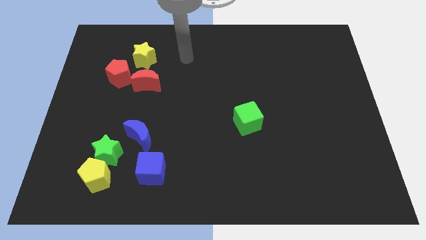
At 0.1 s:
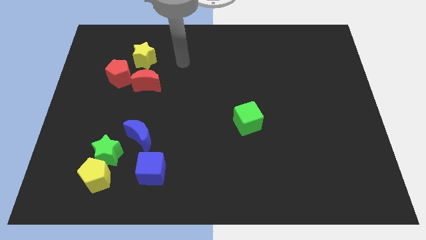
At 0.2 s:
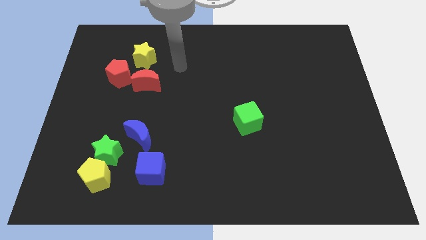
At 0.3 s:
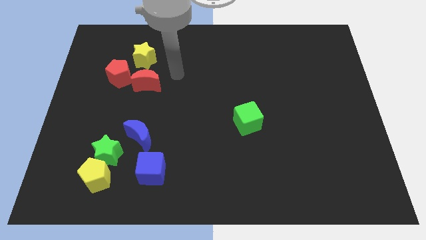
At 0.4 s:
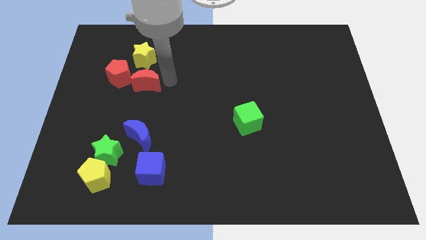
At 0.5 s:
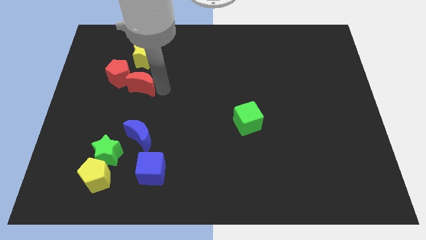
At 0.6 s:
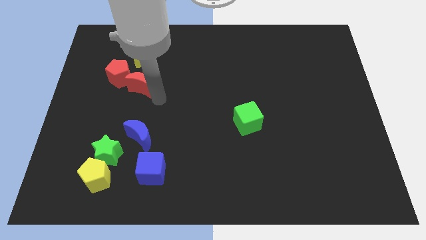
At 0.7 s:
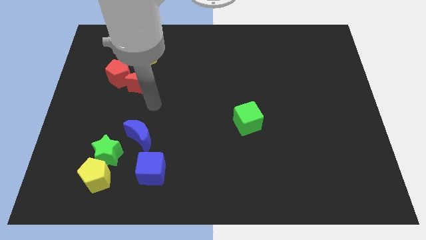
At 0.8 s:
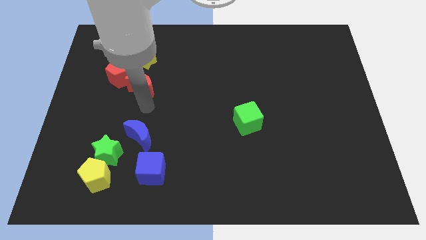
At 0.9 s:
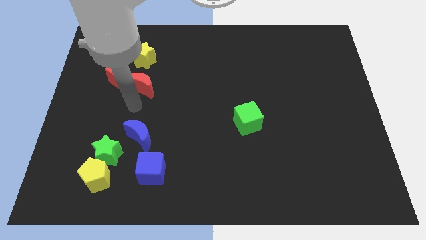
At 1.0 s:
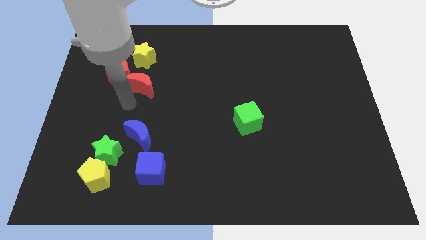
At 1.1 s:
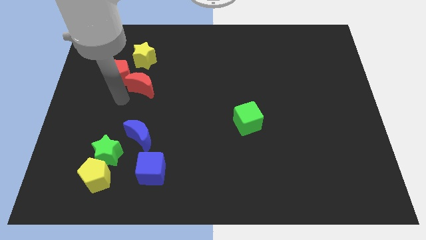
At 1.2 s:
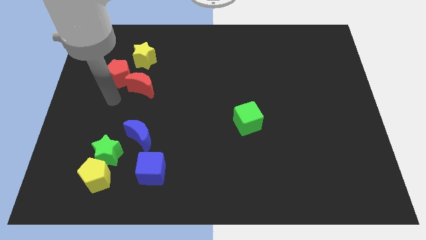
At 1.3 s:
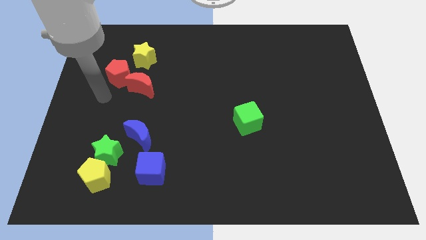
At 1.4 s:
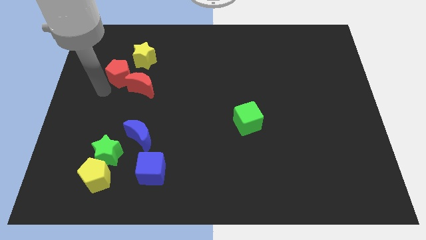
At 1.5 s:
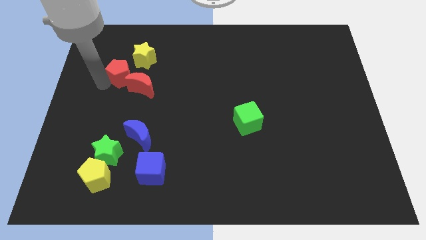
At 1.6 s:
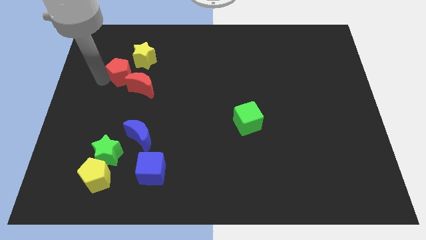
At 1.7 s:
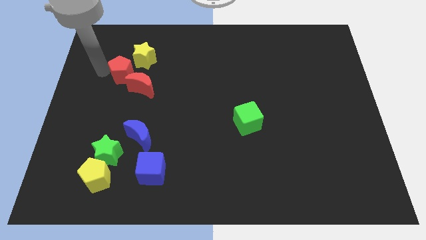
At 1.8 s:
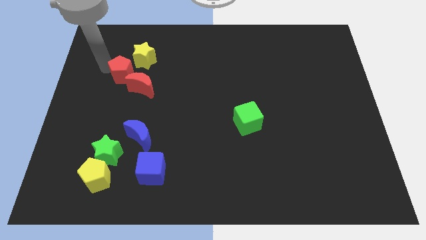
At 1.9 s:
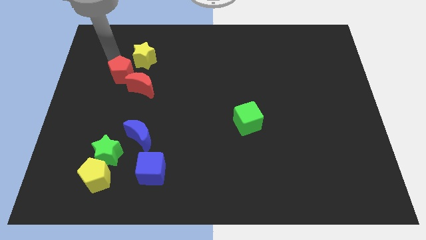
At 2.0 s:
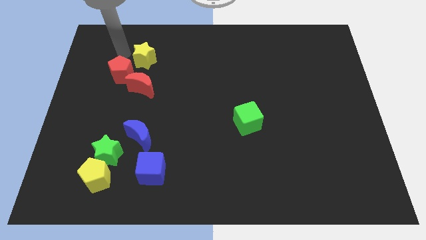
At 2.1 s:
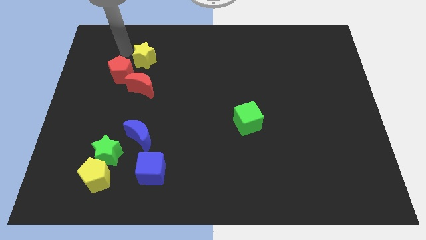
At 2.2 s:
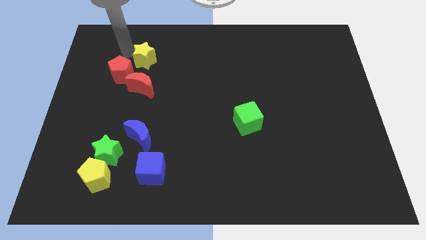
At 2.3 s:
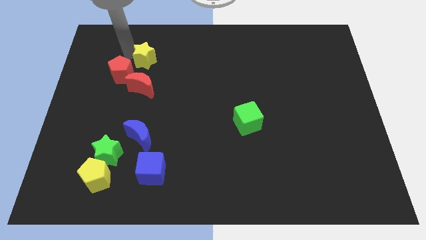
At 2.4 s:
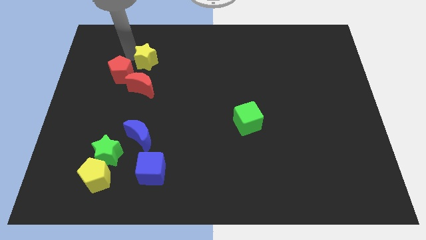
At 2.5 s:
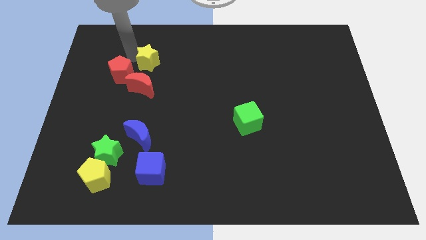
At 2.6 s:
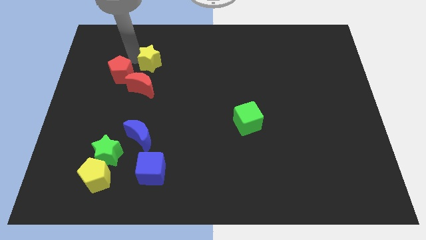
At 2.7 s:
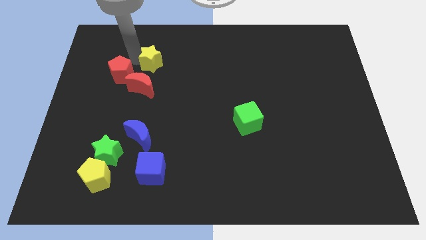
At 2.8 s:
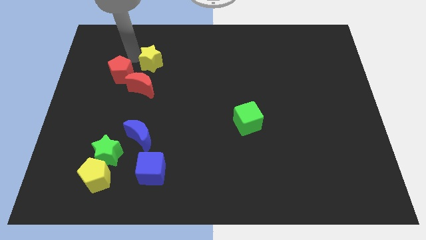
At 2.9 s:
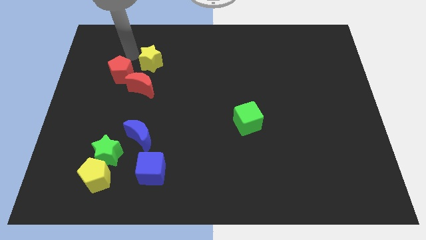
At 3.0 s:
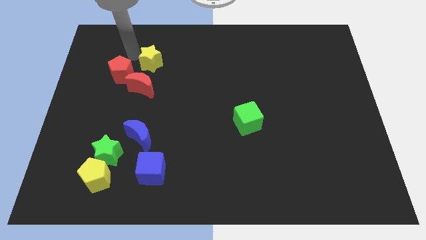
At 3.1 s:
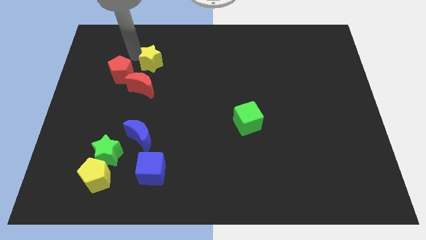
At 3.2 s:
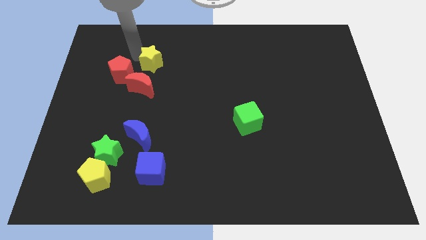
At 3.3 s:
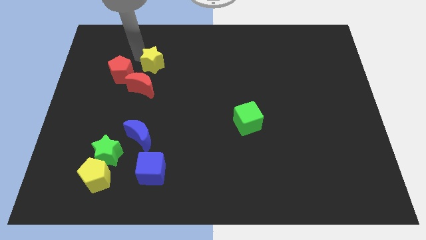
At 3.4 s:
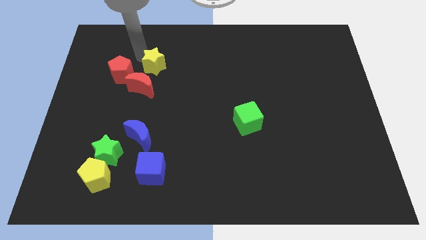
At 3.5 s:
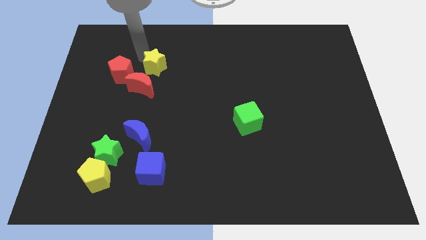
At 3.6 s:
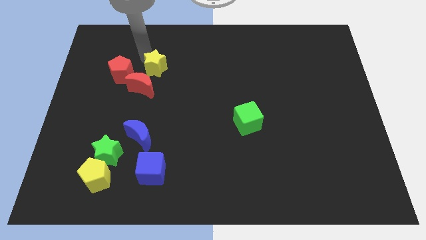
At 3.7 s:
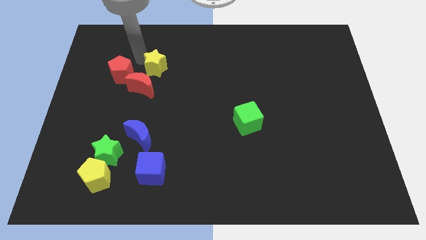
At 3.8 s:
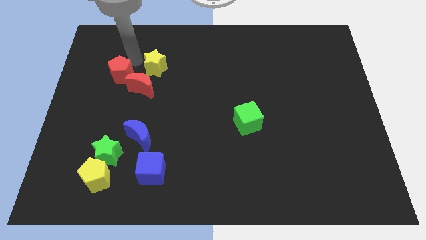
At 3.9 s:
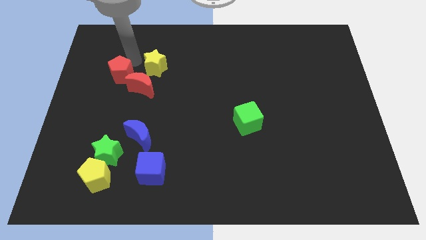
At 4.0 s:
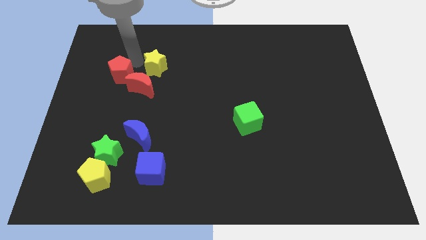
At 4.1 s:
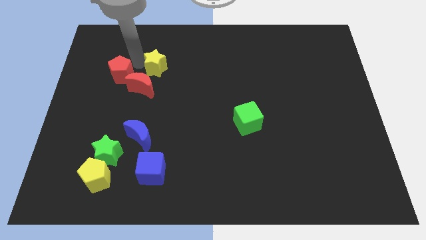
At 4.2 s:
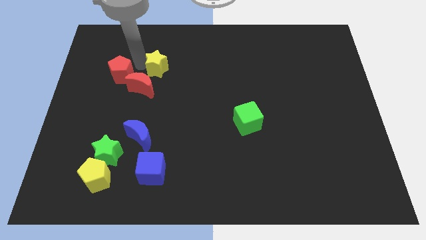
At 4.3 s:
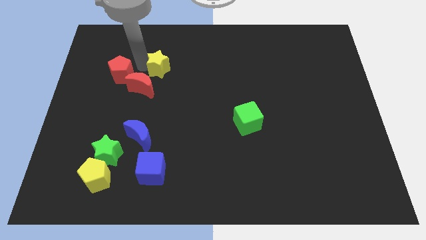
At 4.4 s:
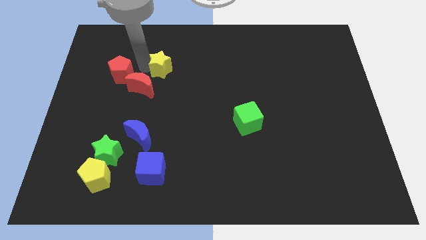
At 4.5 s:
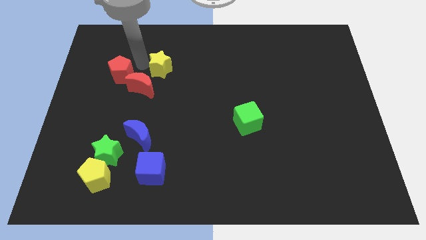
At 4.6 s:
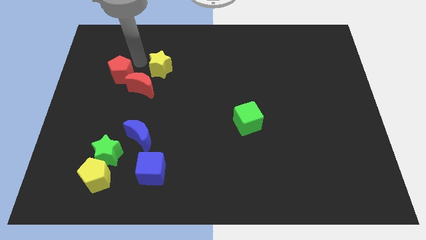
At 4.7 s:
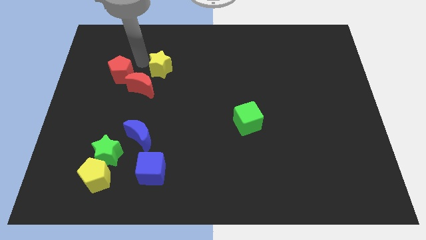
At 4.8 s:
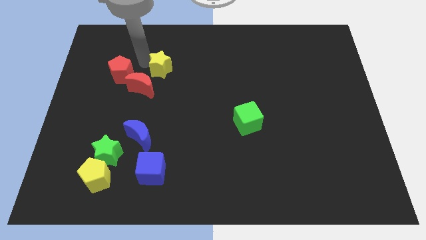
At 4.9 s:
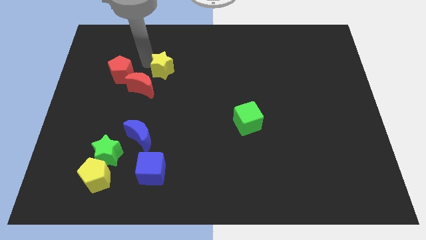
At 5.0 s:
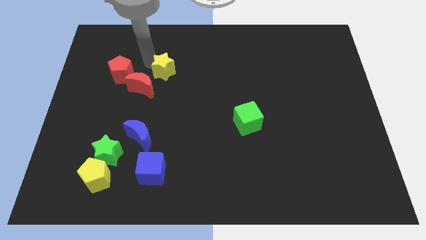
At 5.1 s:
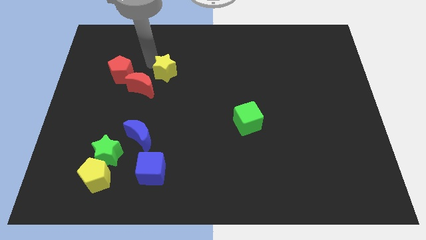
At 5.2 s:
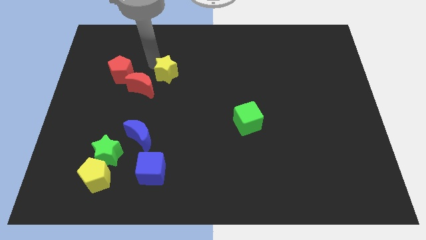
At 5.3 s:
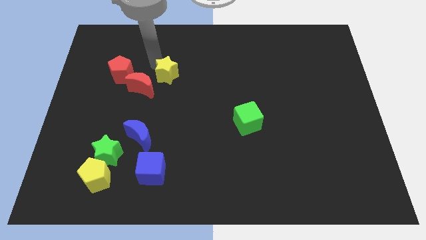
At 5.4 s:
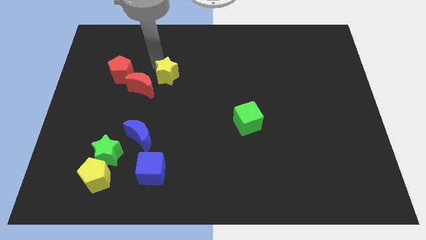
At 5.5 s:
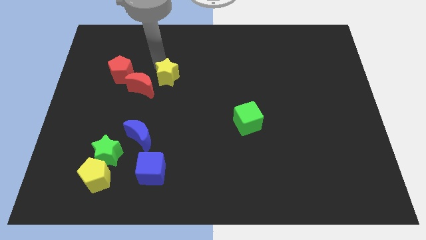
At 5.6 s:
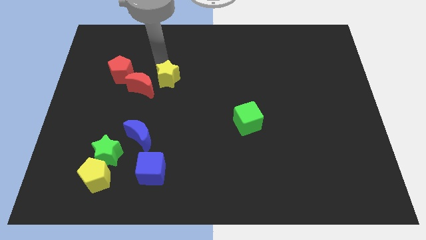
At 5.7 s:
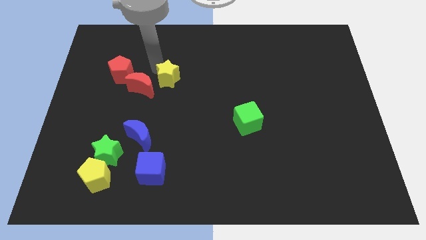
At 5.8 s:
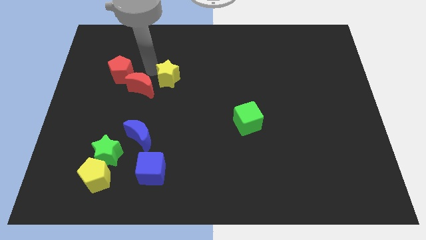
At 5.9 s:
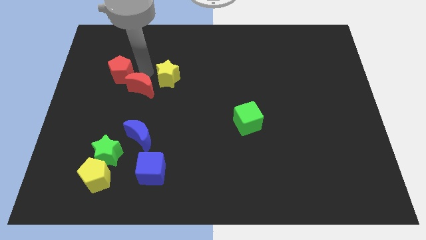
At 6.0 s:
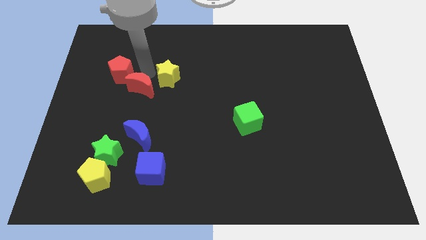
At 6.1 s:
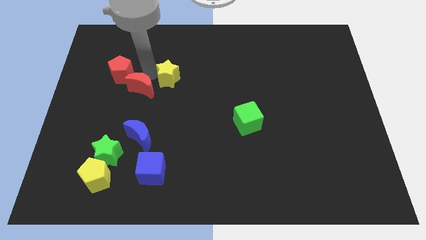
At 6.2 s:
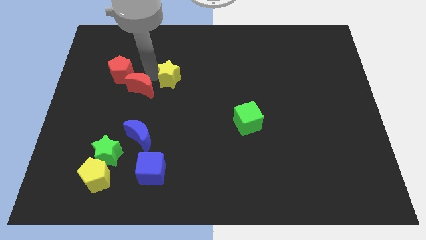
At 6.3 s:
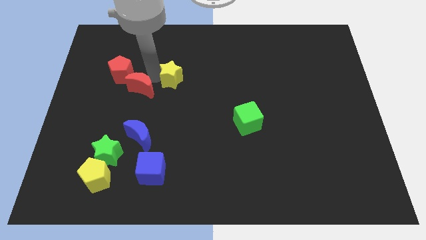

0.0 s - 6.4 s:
push the yellow star to the middle of the board
